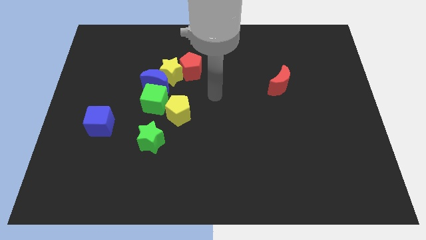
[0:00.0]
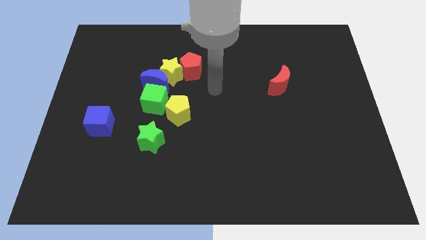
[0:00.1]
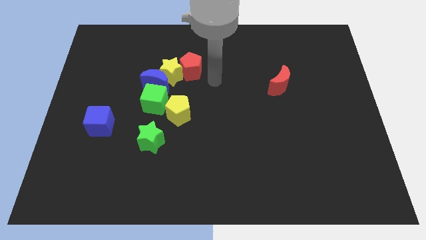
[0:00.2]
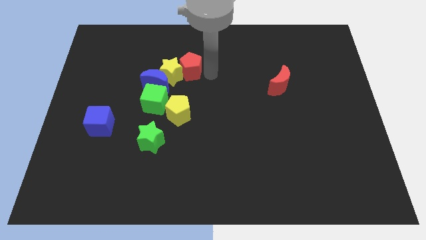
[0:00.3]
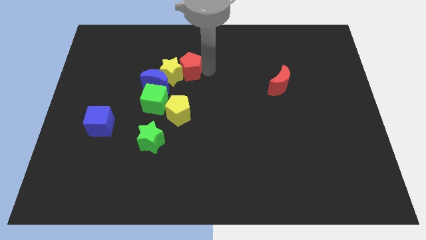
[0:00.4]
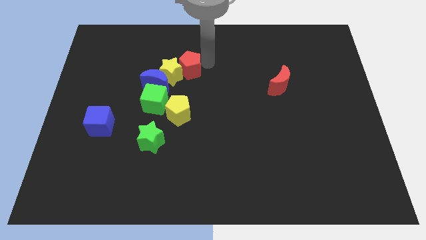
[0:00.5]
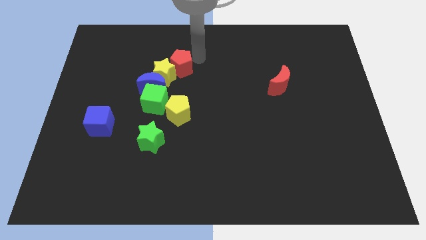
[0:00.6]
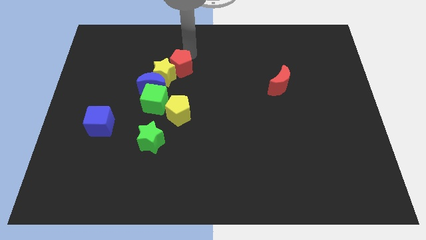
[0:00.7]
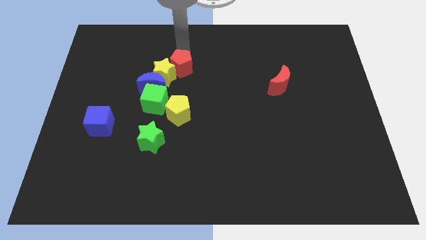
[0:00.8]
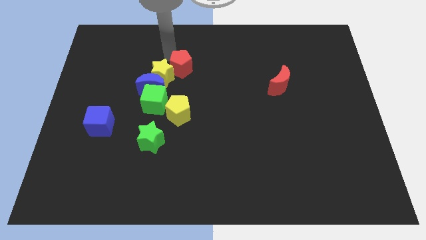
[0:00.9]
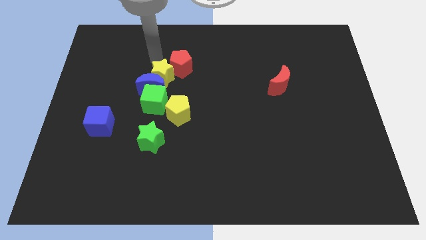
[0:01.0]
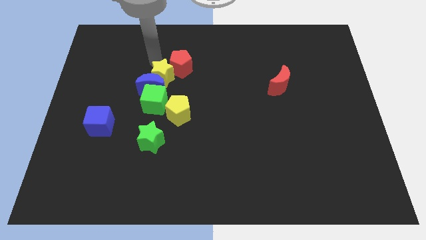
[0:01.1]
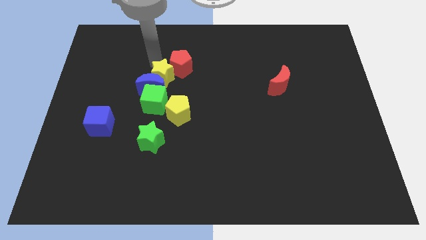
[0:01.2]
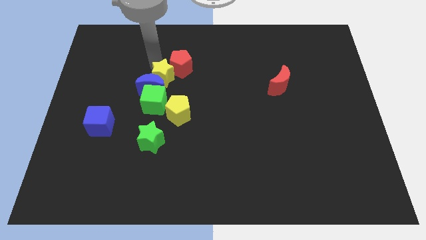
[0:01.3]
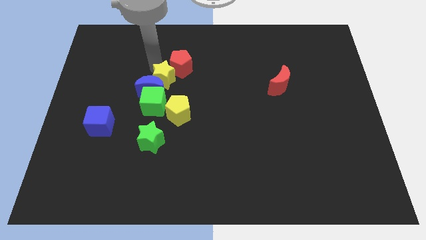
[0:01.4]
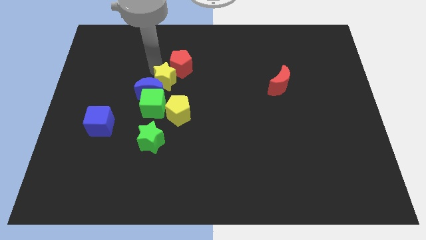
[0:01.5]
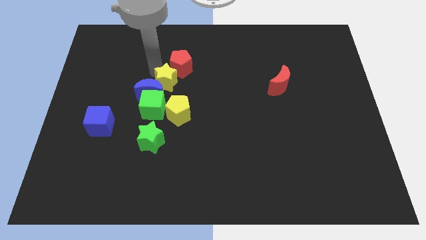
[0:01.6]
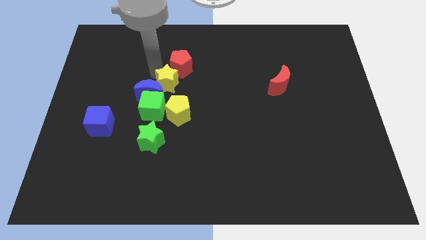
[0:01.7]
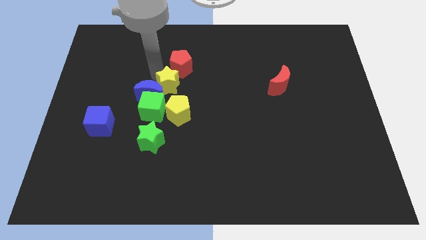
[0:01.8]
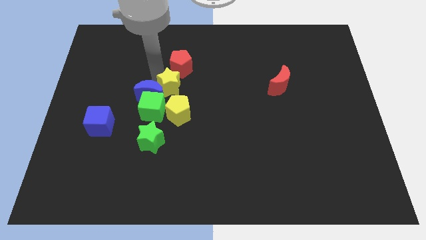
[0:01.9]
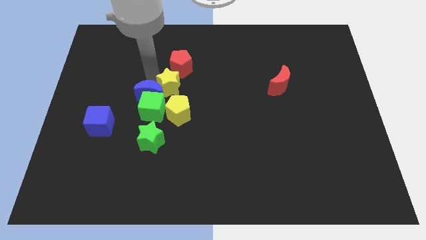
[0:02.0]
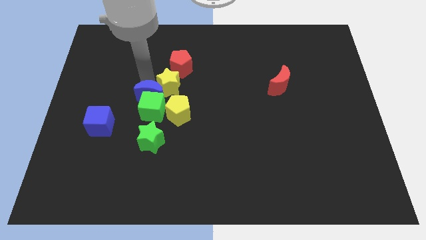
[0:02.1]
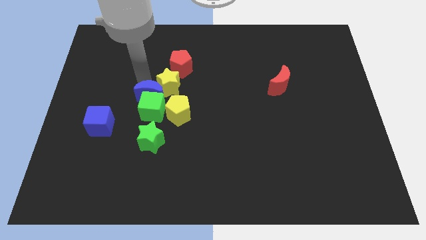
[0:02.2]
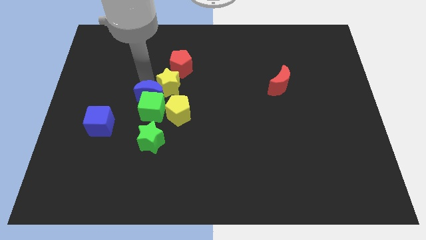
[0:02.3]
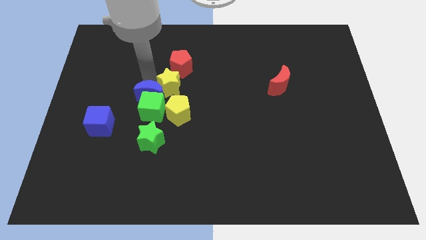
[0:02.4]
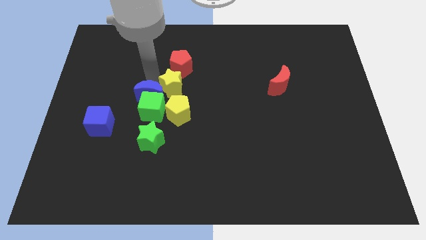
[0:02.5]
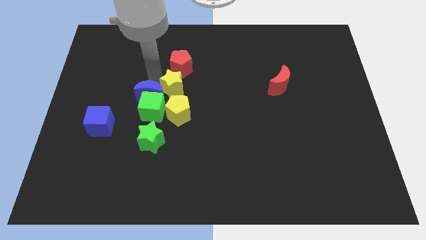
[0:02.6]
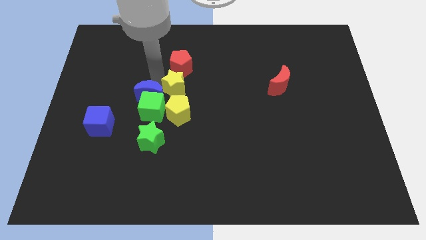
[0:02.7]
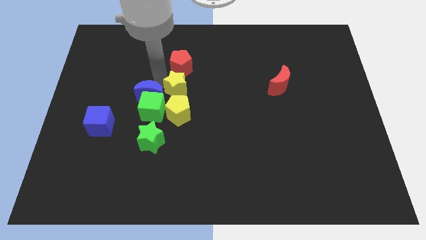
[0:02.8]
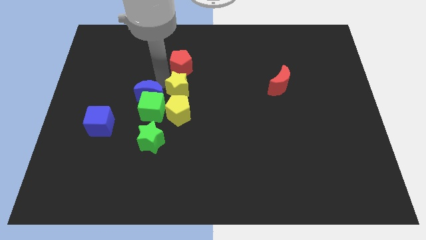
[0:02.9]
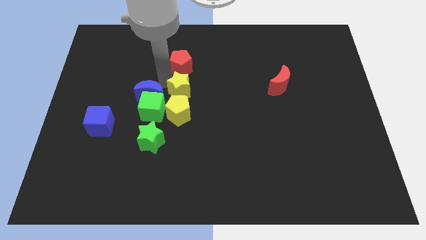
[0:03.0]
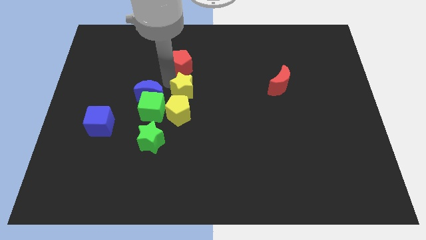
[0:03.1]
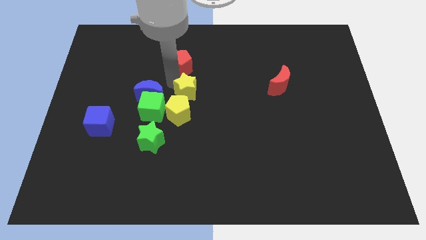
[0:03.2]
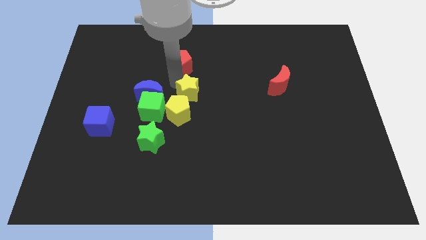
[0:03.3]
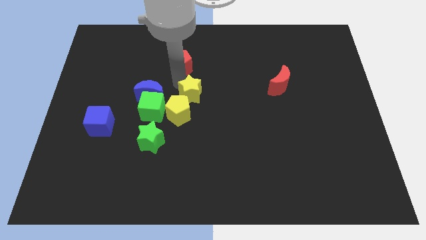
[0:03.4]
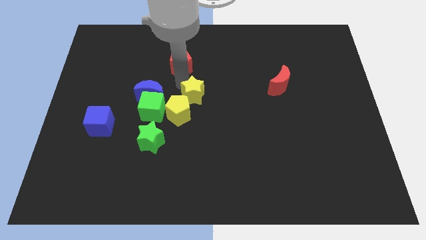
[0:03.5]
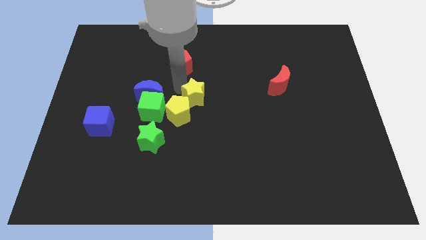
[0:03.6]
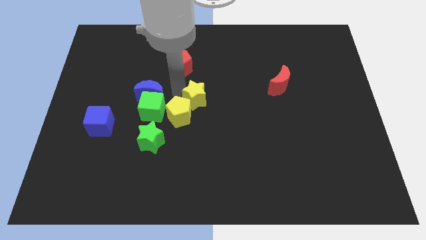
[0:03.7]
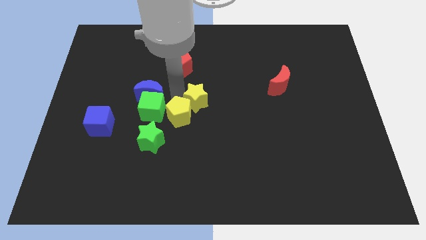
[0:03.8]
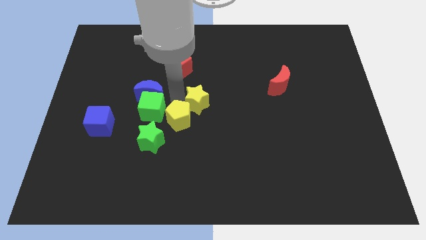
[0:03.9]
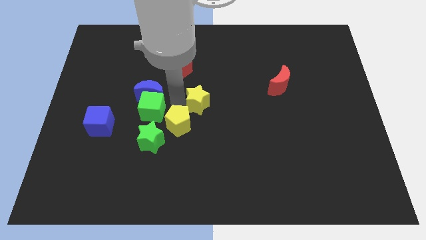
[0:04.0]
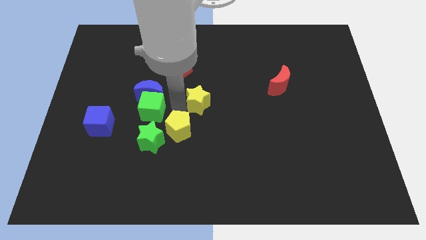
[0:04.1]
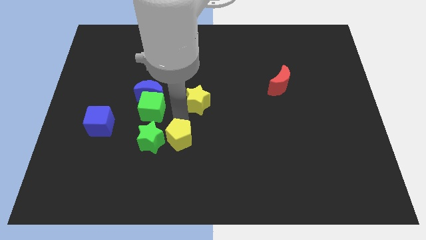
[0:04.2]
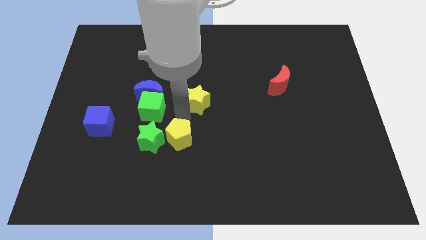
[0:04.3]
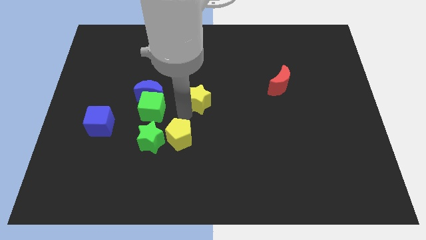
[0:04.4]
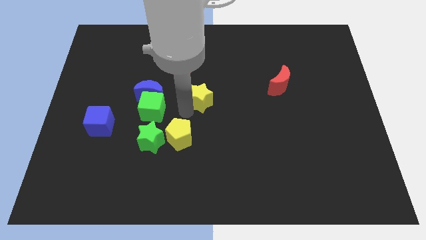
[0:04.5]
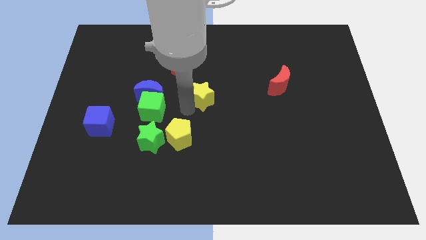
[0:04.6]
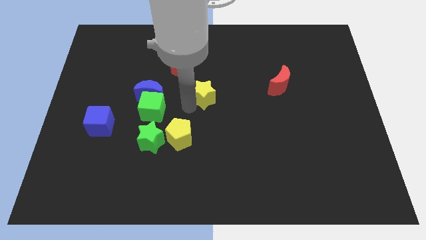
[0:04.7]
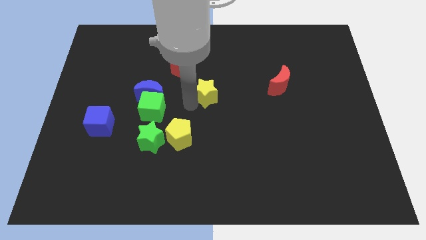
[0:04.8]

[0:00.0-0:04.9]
move the yellow star right somewhat

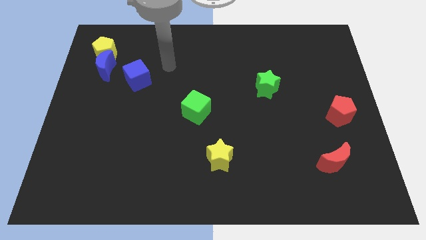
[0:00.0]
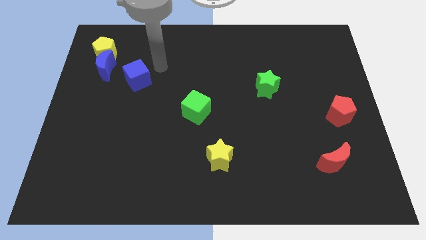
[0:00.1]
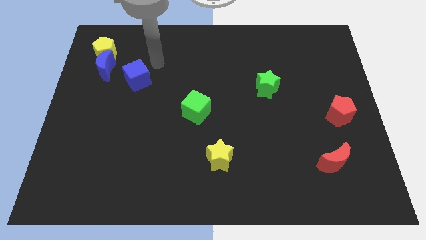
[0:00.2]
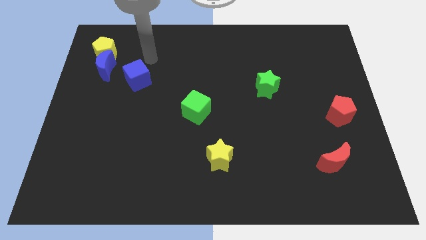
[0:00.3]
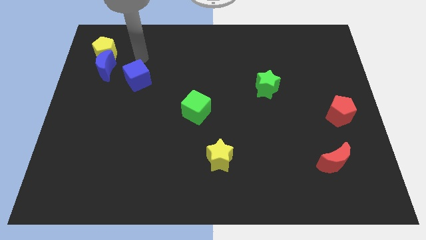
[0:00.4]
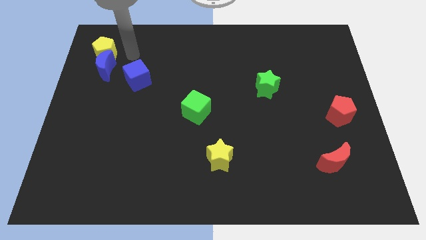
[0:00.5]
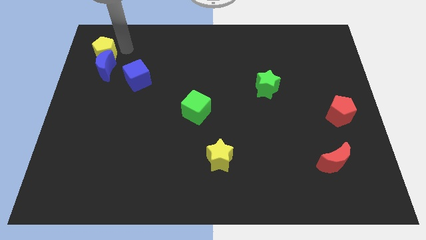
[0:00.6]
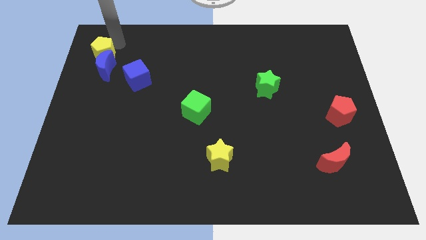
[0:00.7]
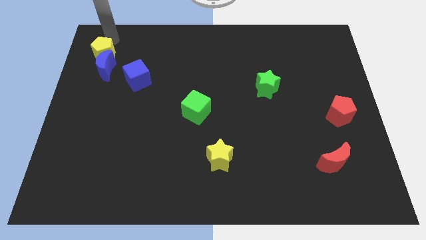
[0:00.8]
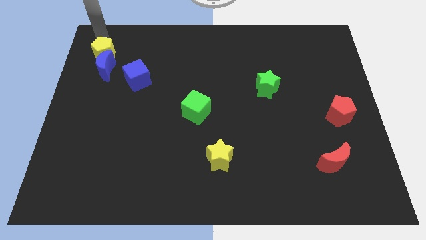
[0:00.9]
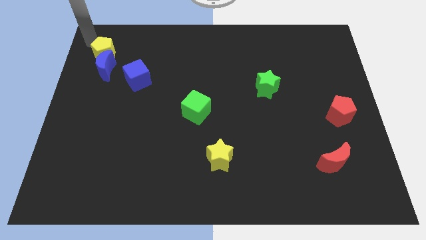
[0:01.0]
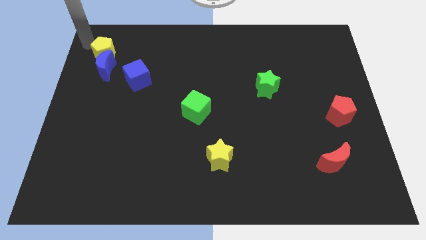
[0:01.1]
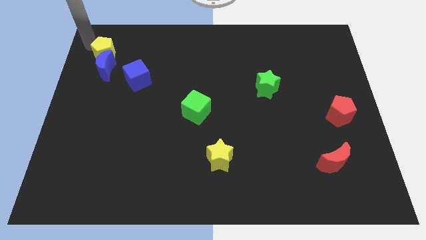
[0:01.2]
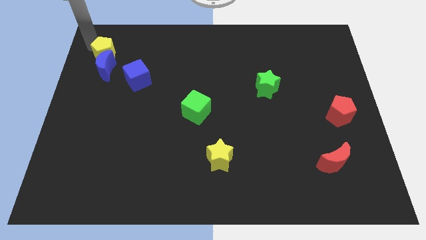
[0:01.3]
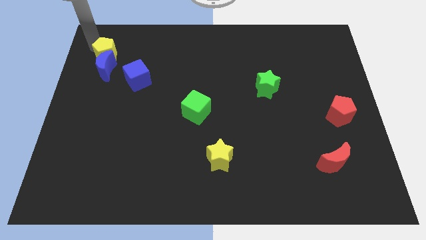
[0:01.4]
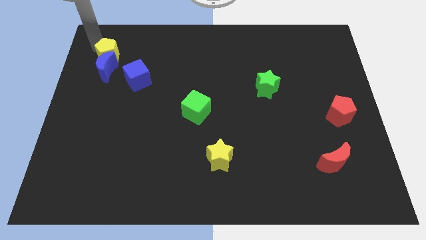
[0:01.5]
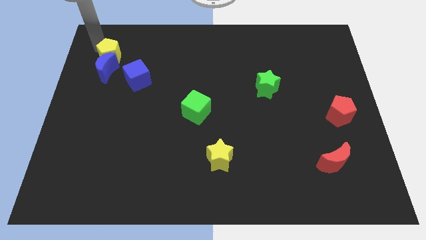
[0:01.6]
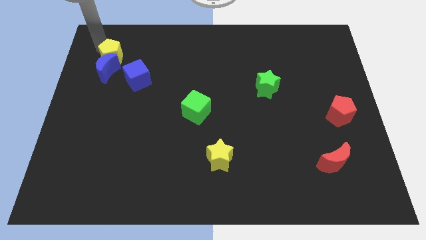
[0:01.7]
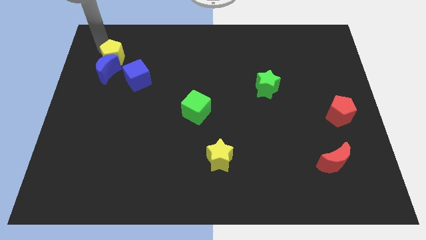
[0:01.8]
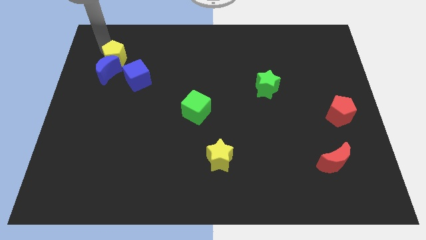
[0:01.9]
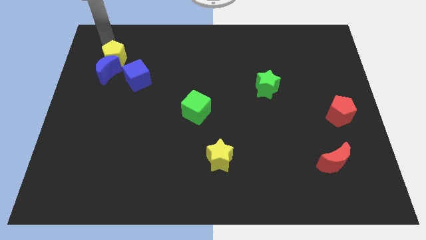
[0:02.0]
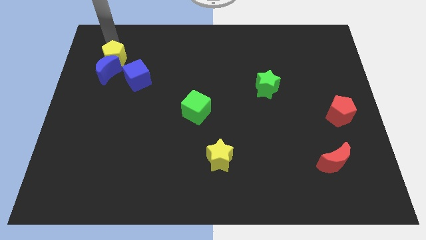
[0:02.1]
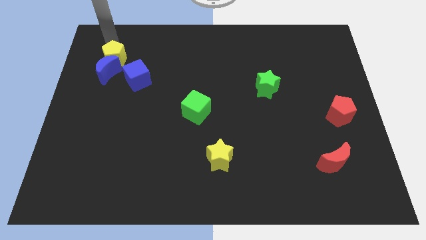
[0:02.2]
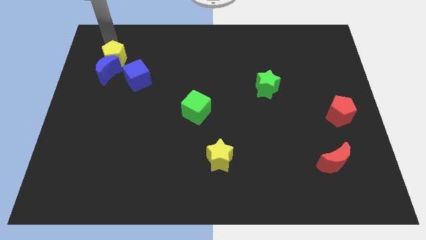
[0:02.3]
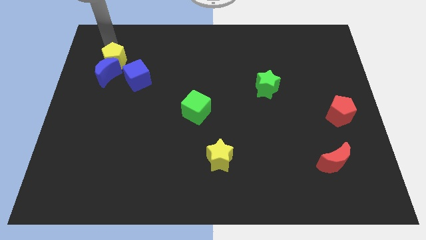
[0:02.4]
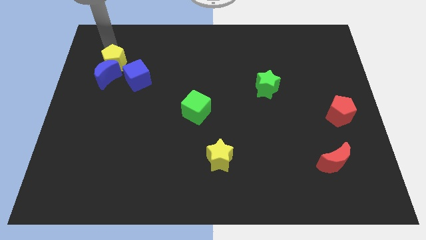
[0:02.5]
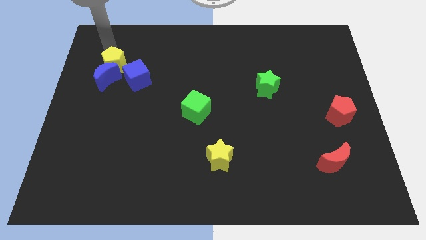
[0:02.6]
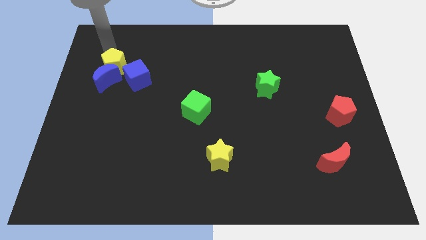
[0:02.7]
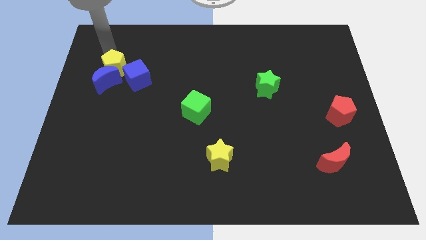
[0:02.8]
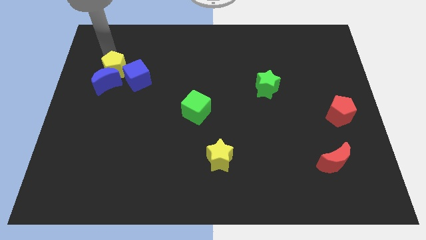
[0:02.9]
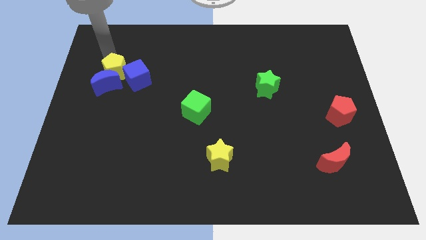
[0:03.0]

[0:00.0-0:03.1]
slide the yellow pentagon slightly down and then right
